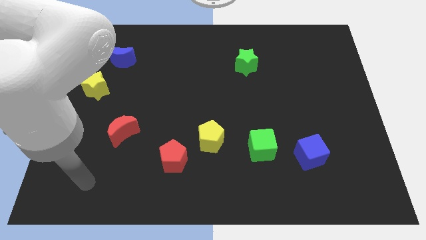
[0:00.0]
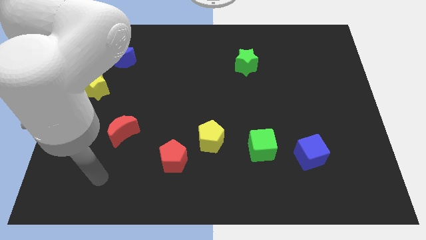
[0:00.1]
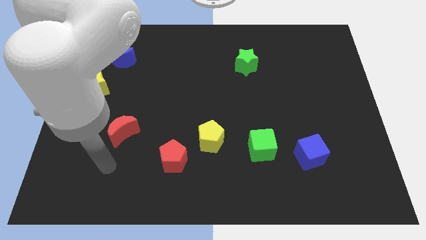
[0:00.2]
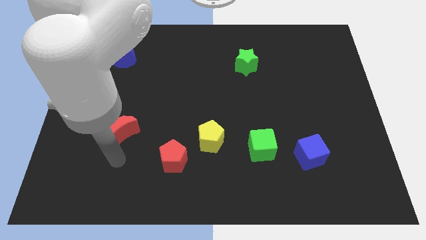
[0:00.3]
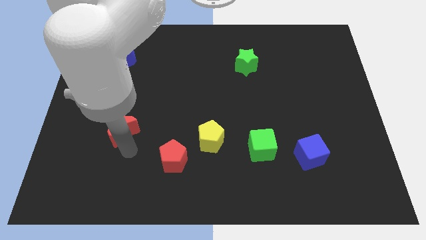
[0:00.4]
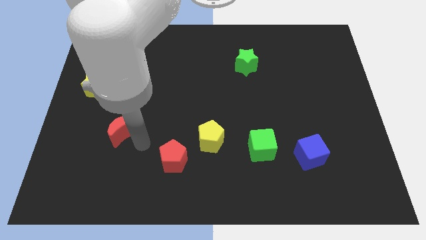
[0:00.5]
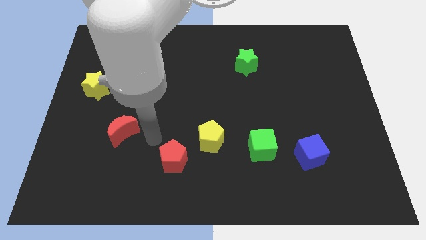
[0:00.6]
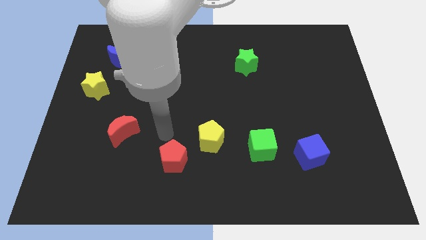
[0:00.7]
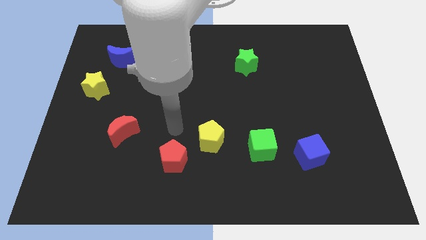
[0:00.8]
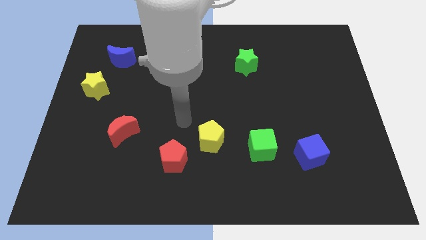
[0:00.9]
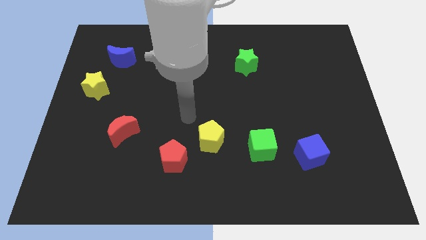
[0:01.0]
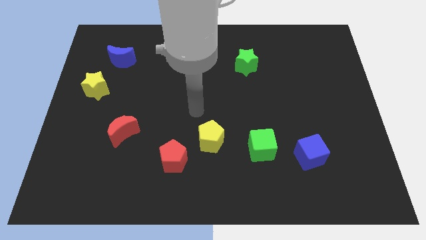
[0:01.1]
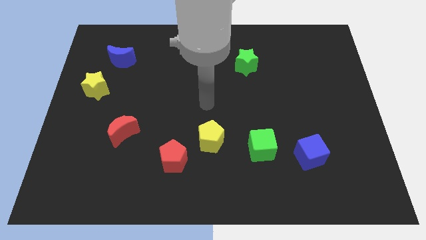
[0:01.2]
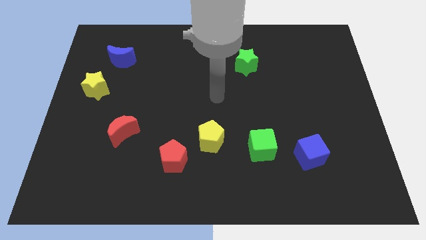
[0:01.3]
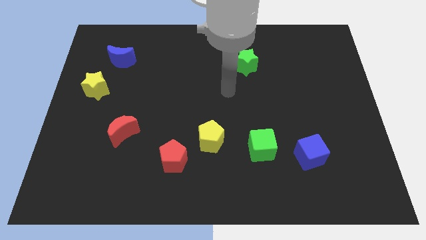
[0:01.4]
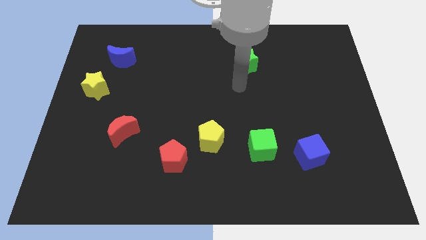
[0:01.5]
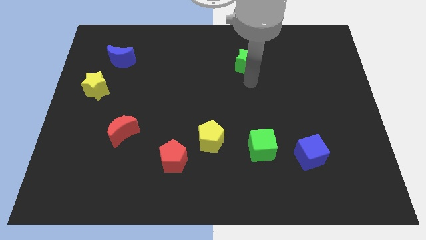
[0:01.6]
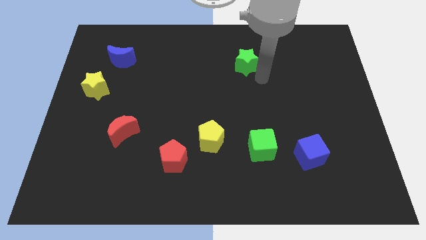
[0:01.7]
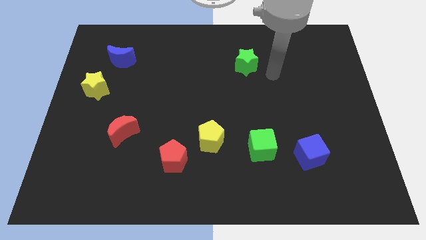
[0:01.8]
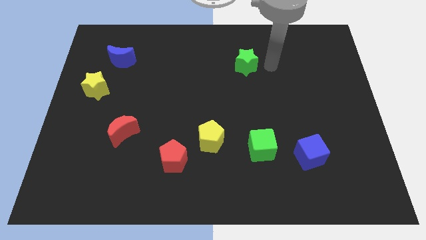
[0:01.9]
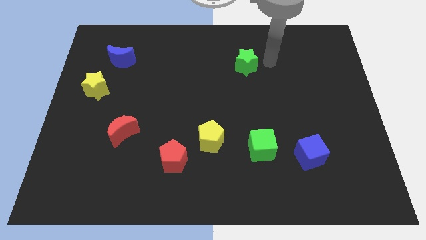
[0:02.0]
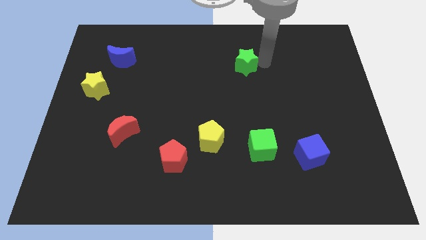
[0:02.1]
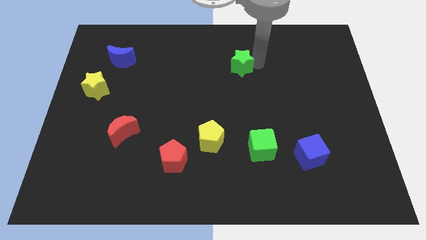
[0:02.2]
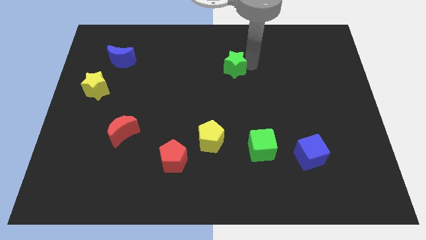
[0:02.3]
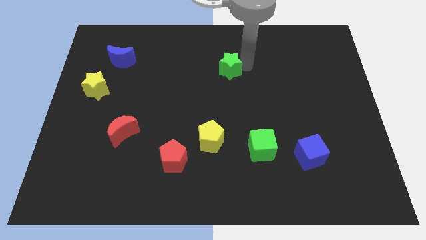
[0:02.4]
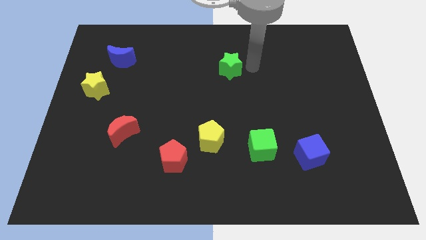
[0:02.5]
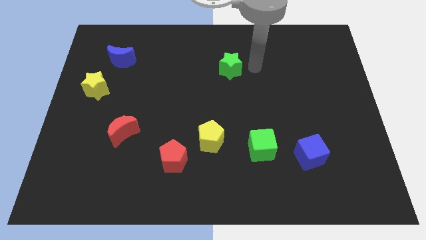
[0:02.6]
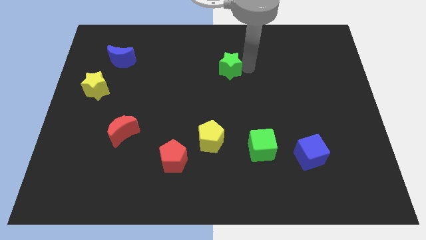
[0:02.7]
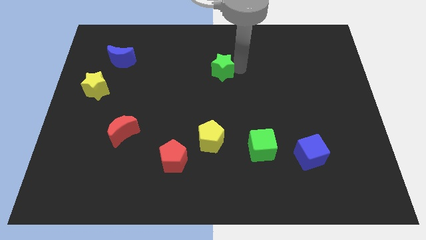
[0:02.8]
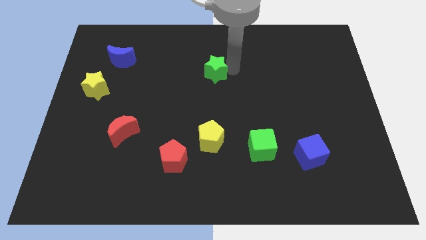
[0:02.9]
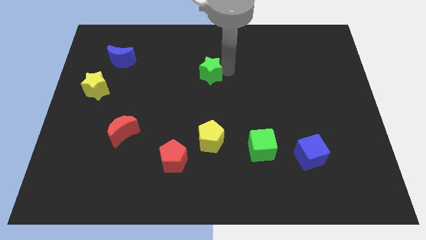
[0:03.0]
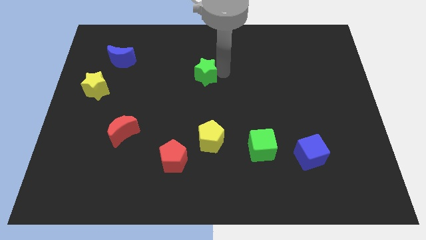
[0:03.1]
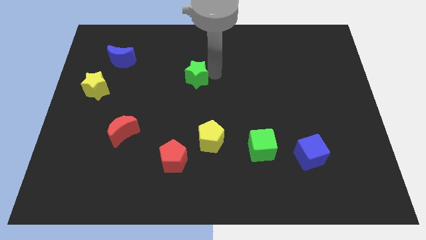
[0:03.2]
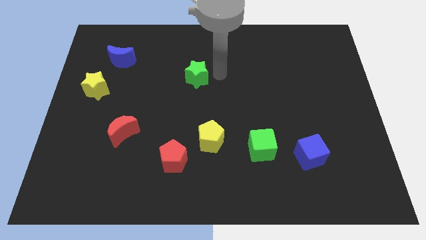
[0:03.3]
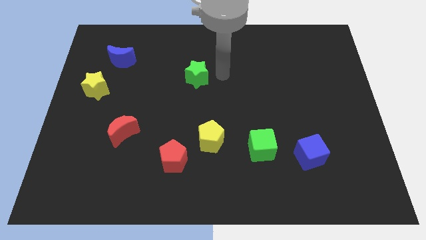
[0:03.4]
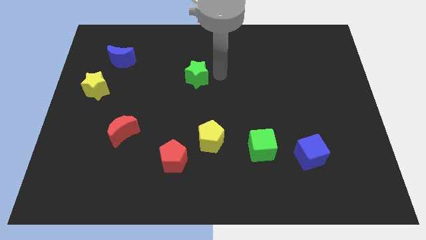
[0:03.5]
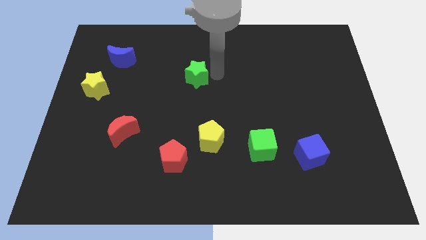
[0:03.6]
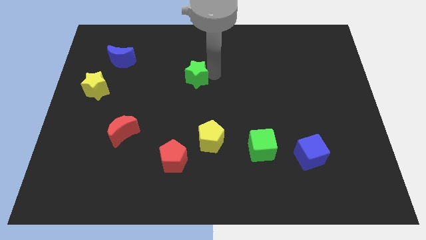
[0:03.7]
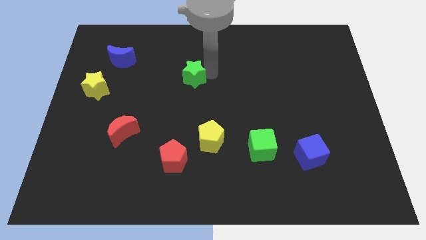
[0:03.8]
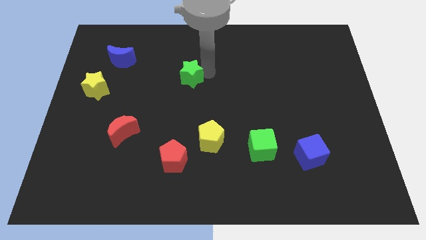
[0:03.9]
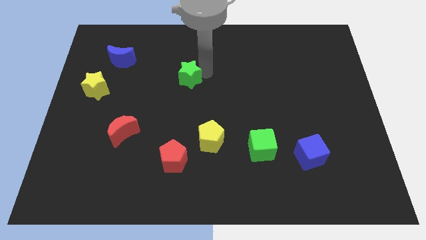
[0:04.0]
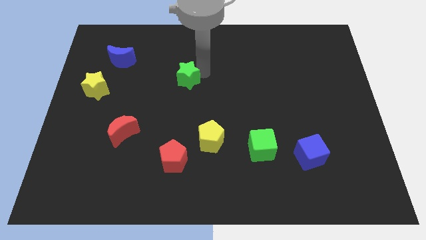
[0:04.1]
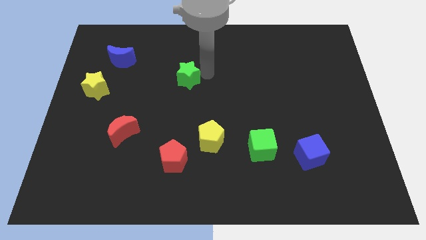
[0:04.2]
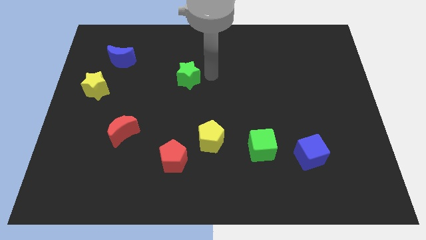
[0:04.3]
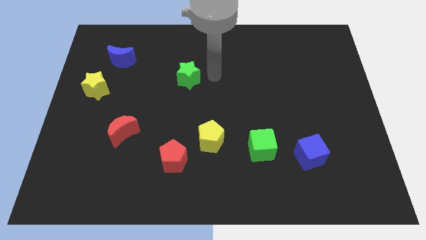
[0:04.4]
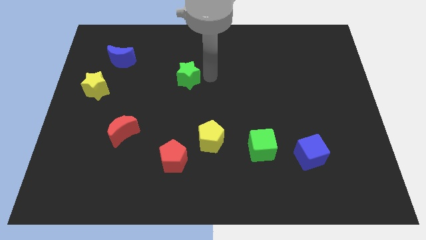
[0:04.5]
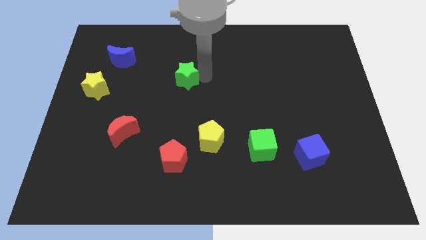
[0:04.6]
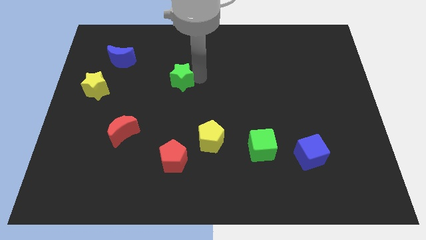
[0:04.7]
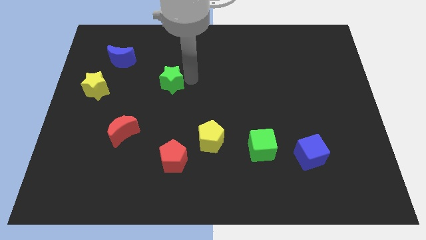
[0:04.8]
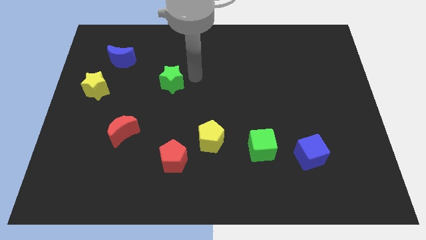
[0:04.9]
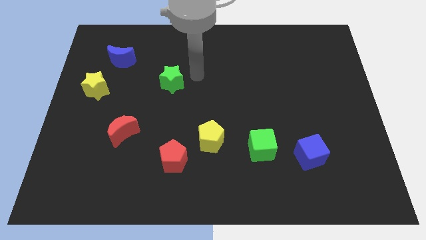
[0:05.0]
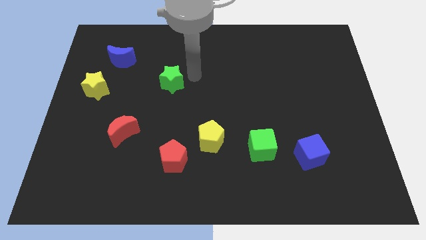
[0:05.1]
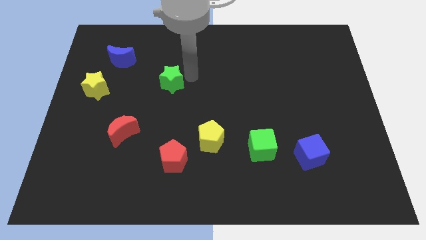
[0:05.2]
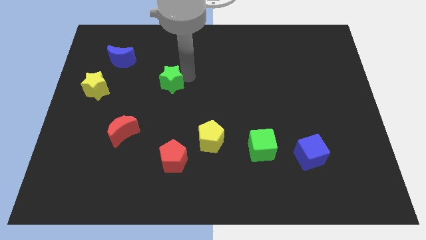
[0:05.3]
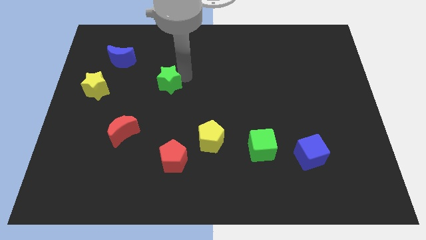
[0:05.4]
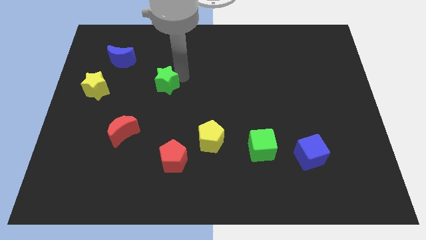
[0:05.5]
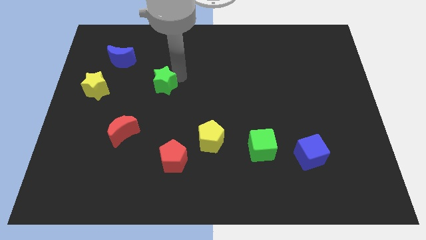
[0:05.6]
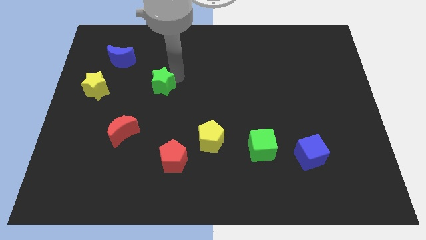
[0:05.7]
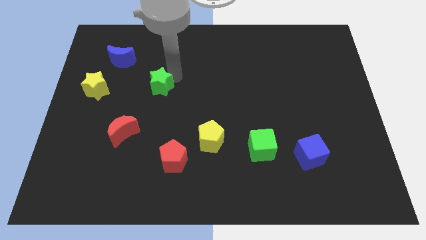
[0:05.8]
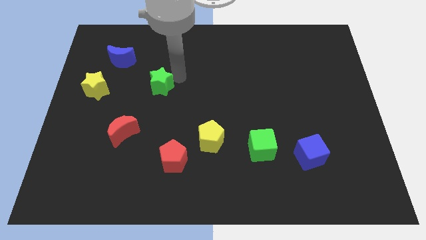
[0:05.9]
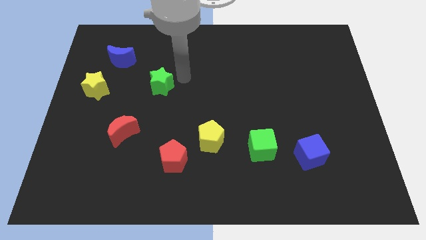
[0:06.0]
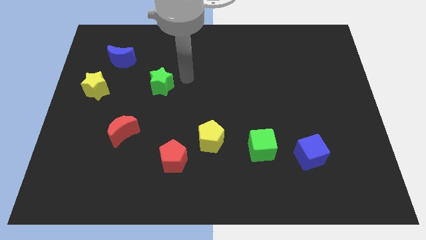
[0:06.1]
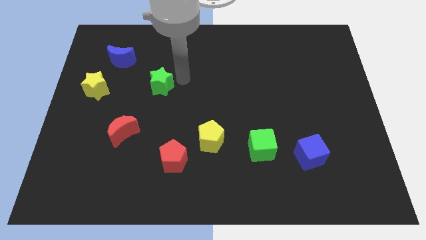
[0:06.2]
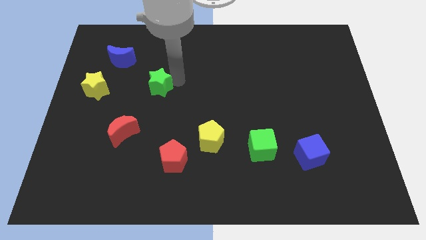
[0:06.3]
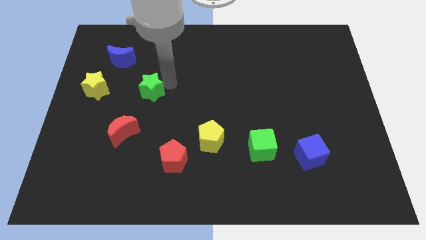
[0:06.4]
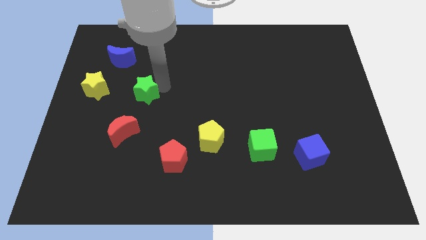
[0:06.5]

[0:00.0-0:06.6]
slide the green star to the top of the red moon
